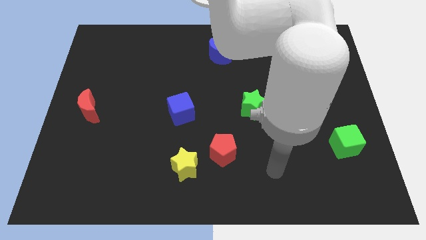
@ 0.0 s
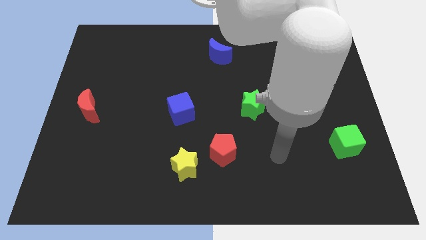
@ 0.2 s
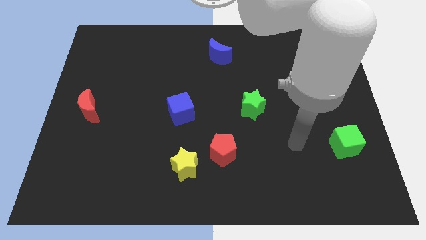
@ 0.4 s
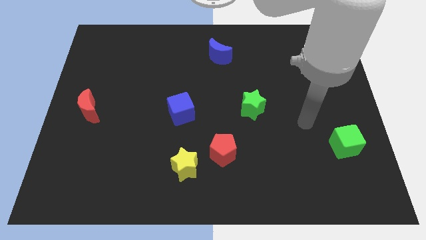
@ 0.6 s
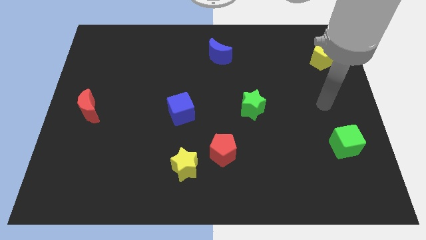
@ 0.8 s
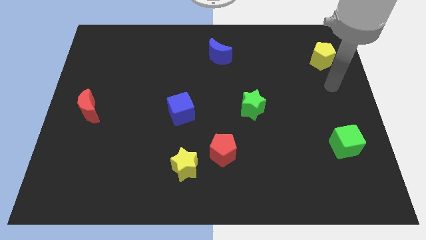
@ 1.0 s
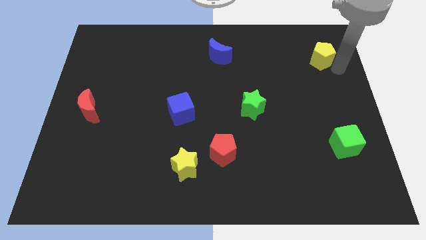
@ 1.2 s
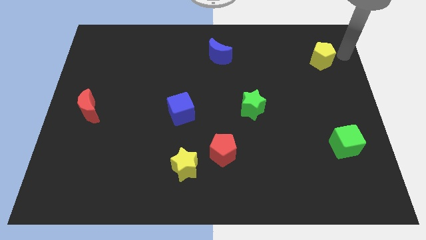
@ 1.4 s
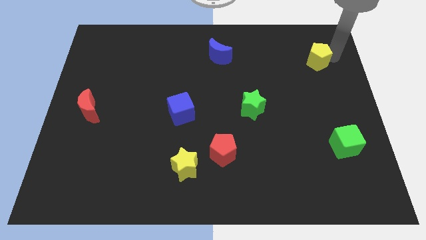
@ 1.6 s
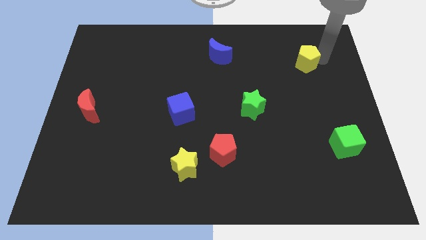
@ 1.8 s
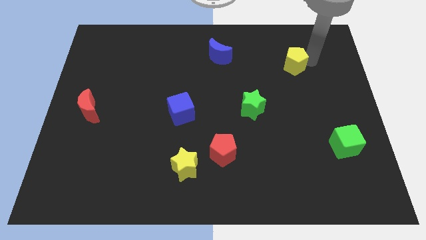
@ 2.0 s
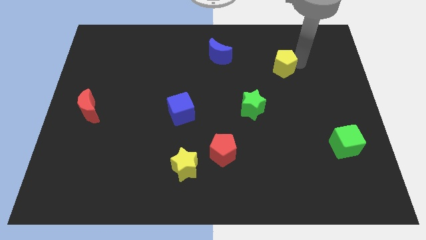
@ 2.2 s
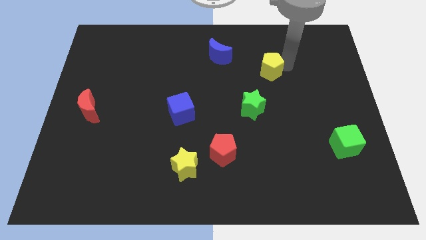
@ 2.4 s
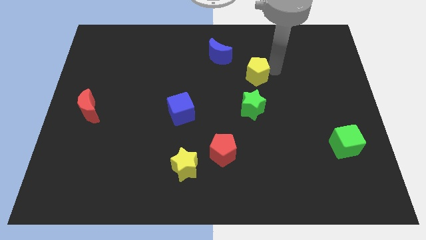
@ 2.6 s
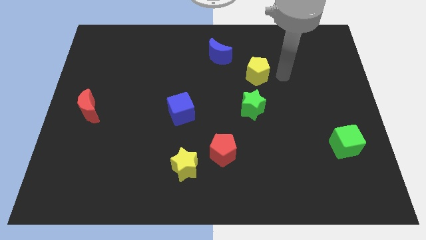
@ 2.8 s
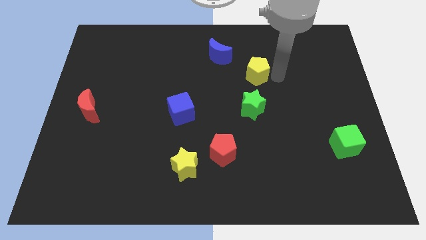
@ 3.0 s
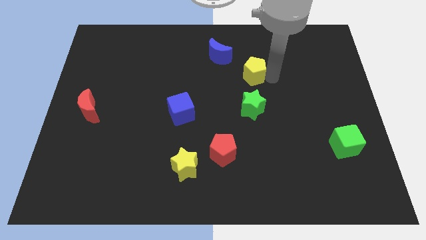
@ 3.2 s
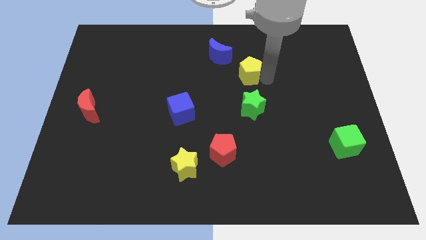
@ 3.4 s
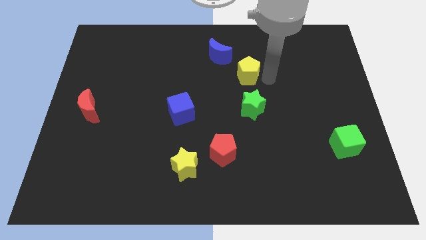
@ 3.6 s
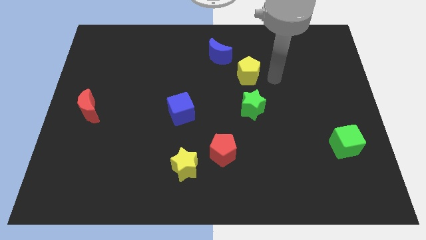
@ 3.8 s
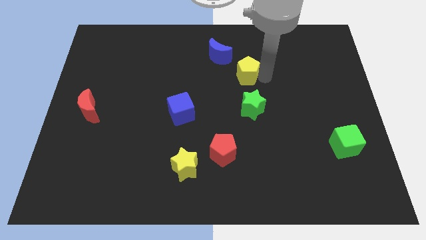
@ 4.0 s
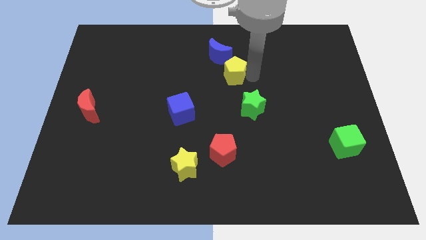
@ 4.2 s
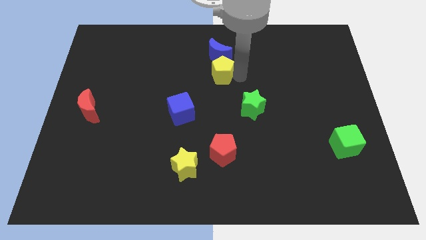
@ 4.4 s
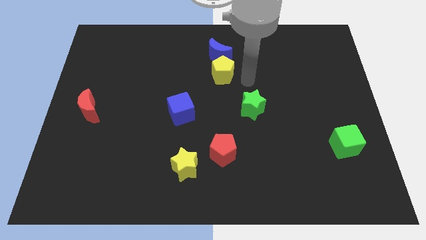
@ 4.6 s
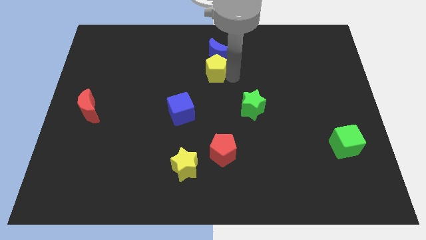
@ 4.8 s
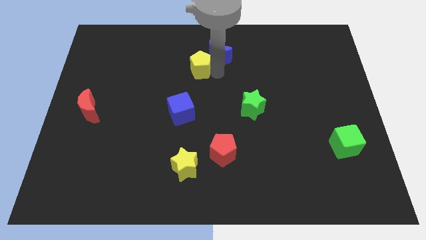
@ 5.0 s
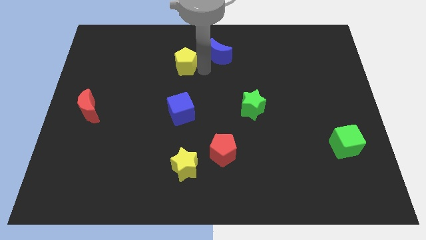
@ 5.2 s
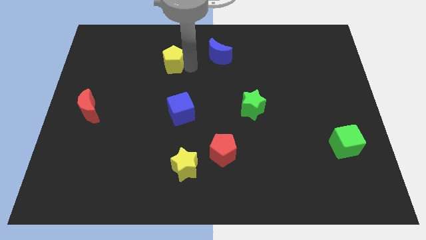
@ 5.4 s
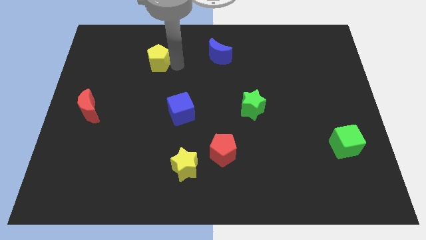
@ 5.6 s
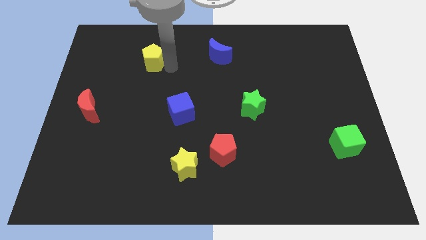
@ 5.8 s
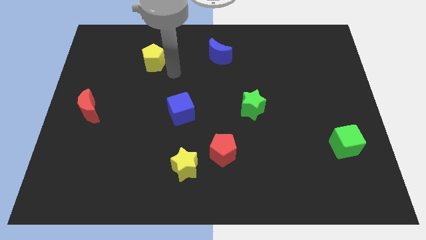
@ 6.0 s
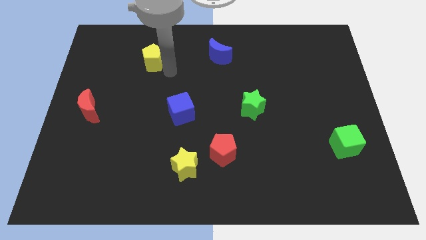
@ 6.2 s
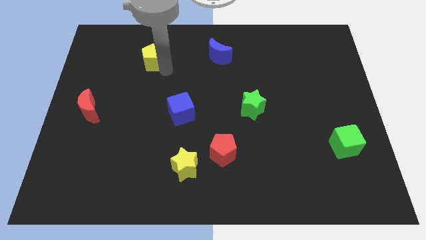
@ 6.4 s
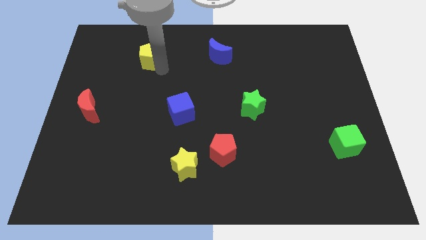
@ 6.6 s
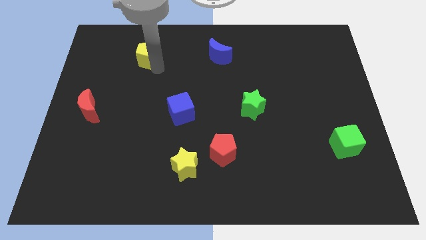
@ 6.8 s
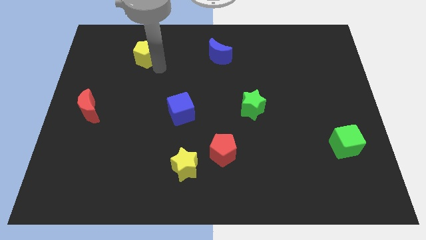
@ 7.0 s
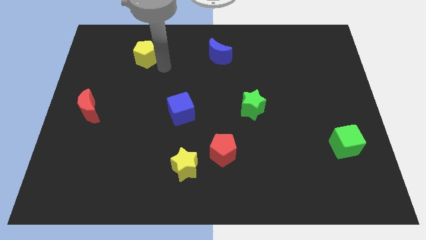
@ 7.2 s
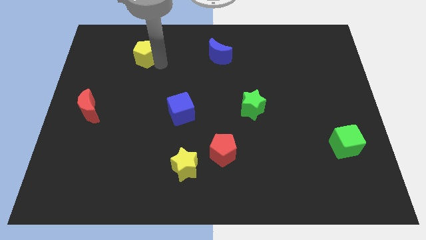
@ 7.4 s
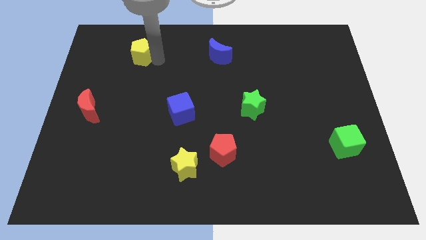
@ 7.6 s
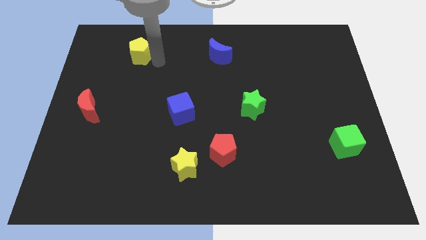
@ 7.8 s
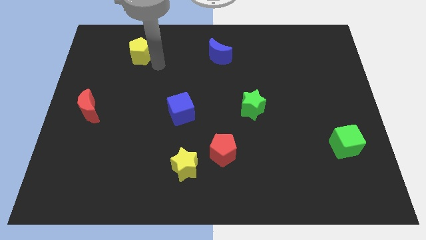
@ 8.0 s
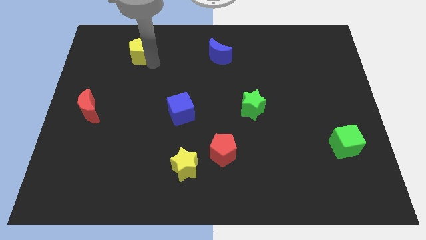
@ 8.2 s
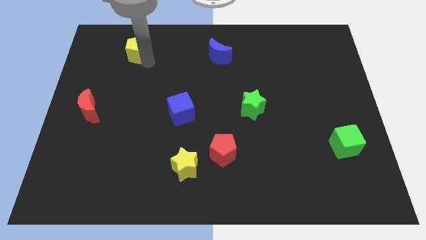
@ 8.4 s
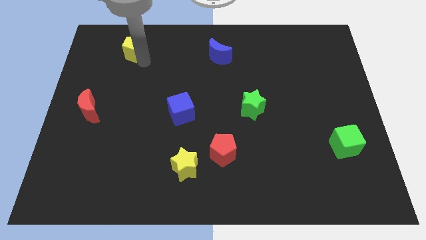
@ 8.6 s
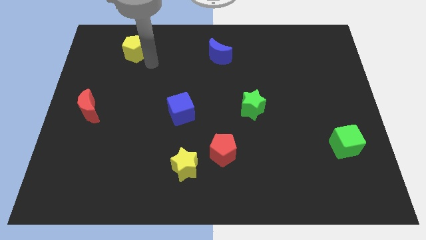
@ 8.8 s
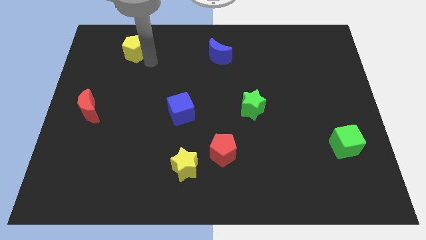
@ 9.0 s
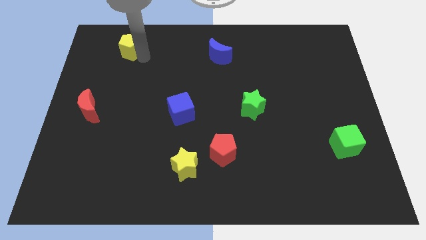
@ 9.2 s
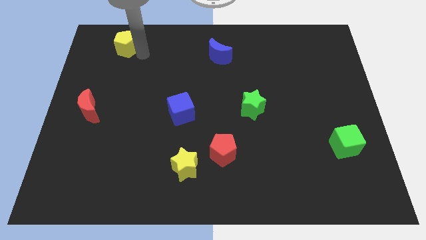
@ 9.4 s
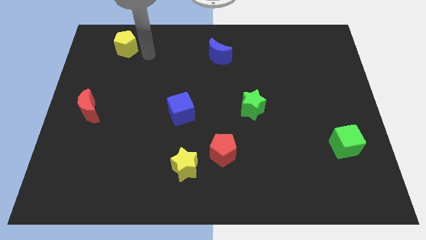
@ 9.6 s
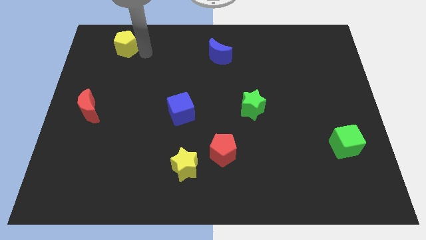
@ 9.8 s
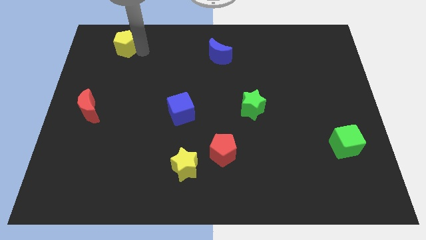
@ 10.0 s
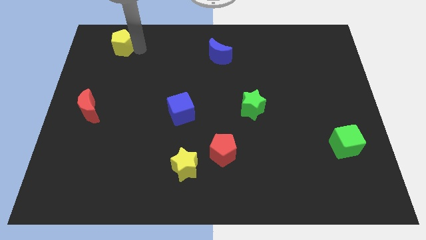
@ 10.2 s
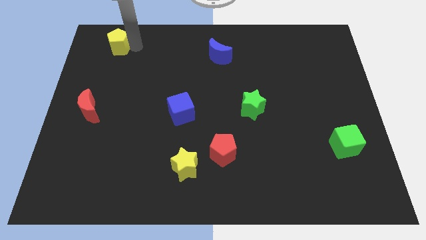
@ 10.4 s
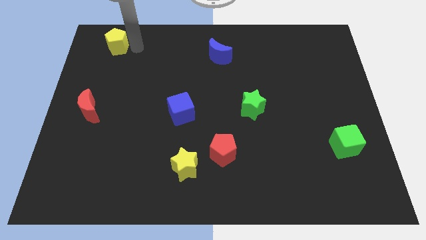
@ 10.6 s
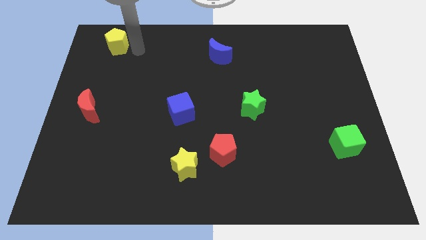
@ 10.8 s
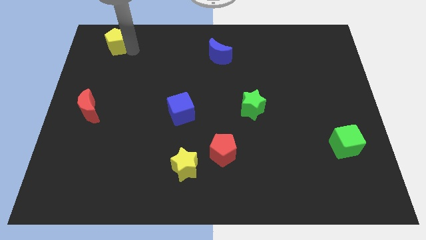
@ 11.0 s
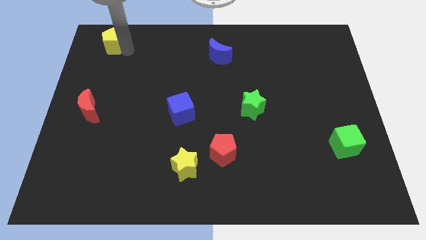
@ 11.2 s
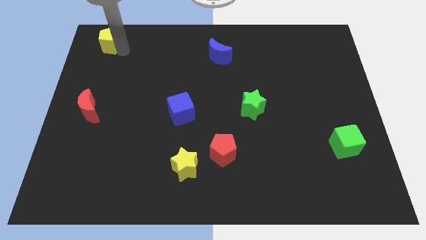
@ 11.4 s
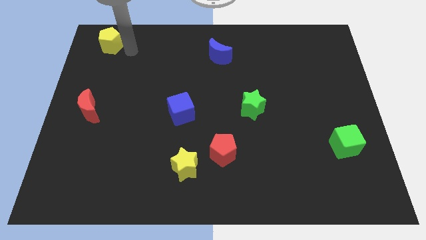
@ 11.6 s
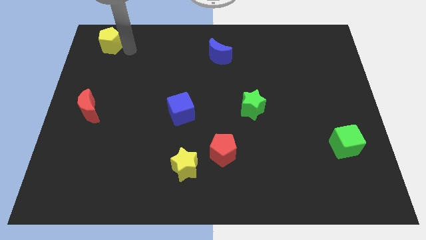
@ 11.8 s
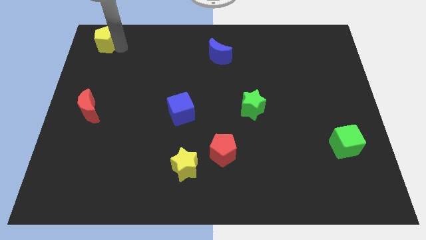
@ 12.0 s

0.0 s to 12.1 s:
slide the yellow pentagon to the top left

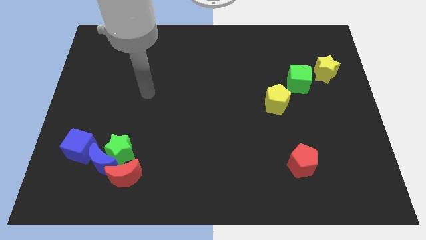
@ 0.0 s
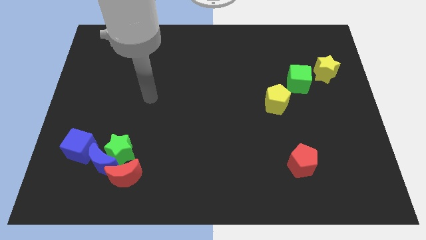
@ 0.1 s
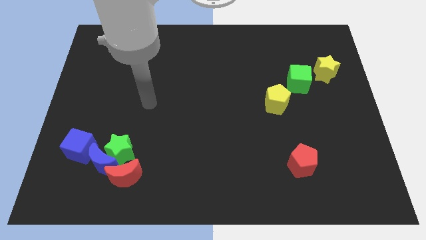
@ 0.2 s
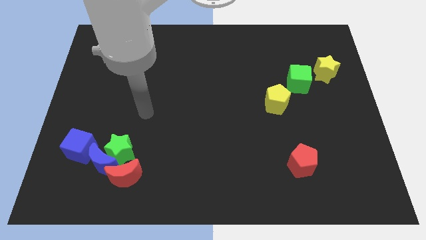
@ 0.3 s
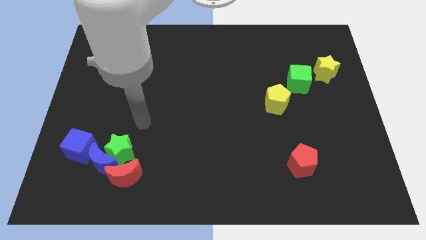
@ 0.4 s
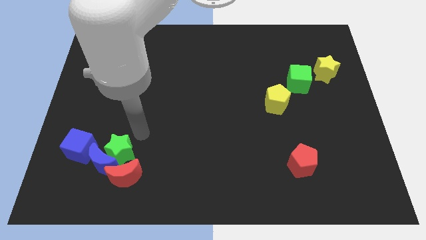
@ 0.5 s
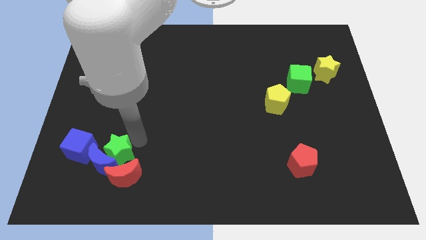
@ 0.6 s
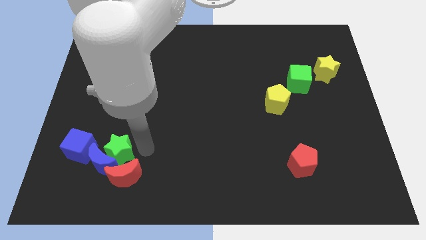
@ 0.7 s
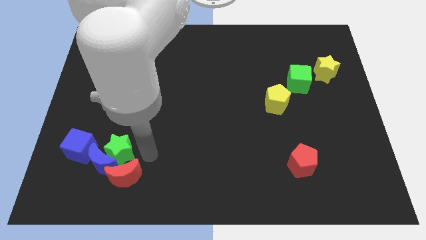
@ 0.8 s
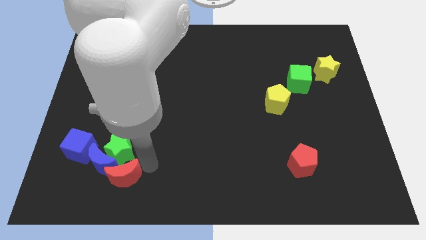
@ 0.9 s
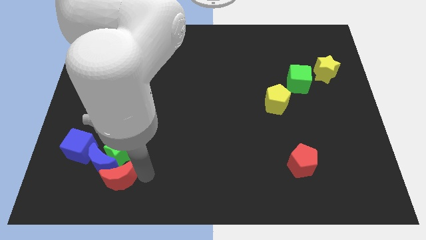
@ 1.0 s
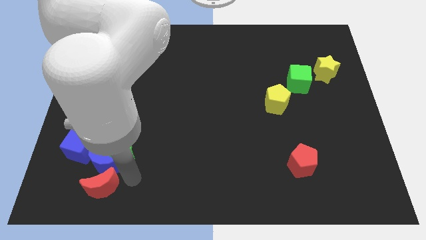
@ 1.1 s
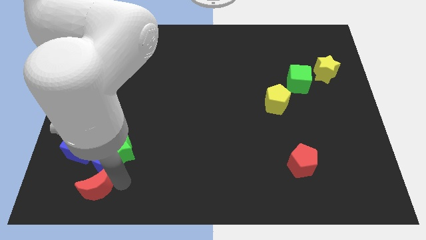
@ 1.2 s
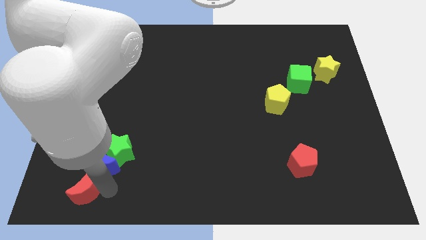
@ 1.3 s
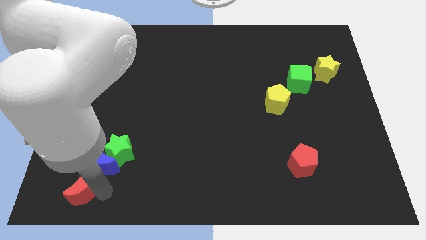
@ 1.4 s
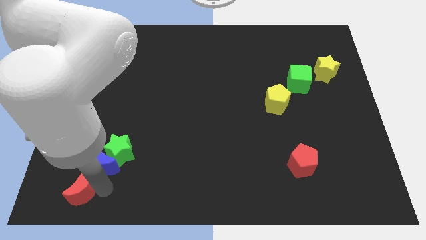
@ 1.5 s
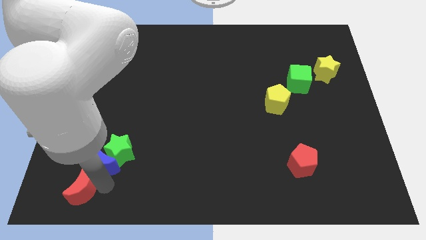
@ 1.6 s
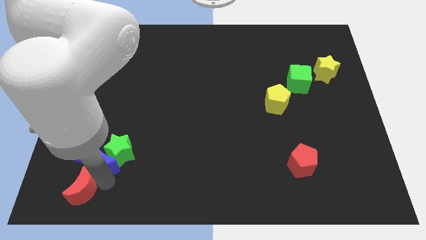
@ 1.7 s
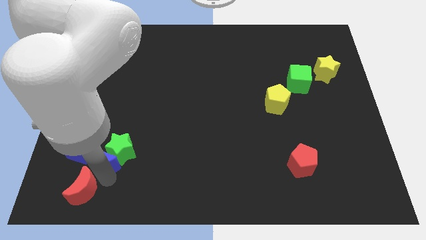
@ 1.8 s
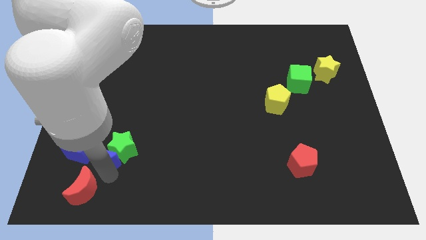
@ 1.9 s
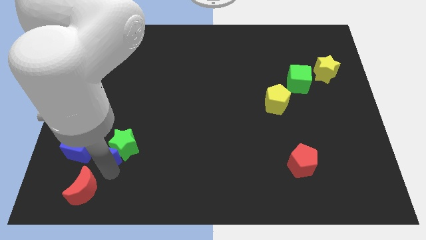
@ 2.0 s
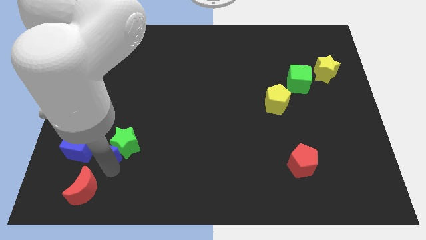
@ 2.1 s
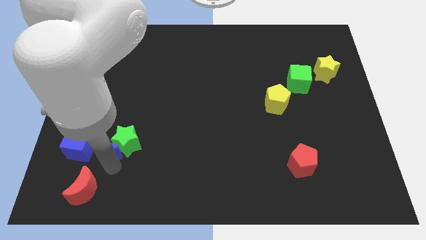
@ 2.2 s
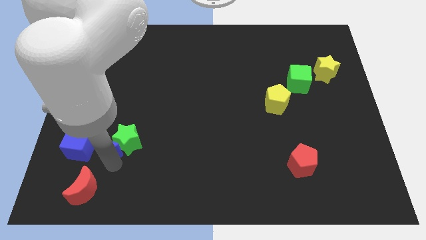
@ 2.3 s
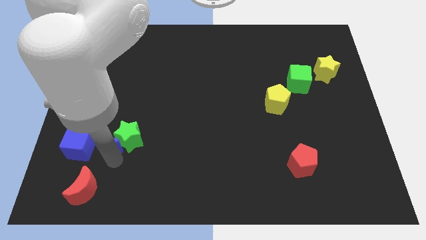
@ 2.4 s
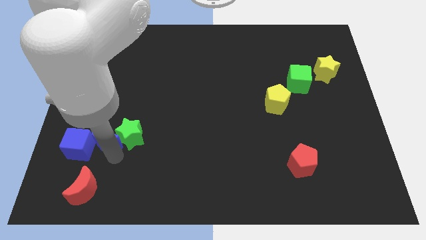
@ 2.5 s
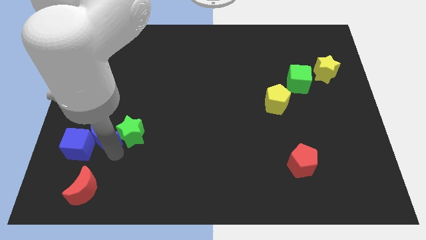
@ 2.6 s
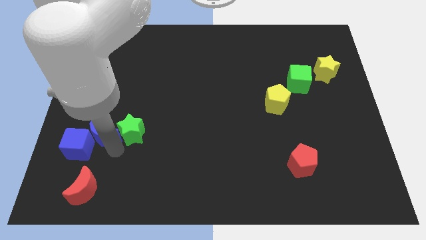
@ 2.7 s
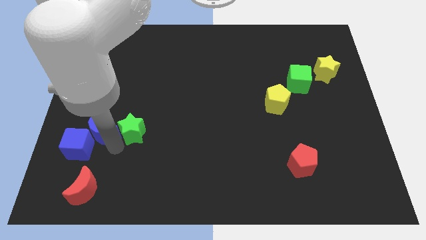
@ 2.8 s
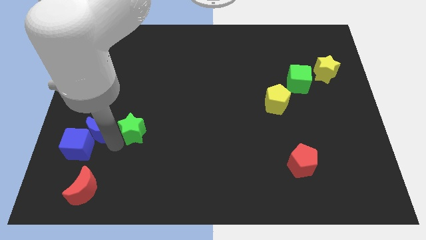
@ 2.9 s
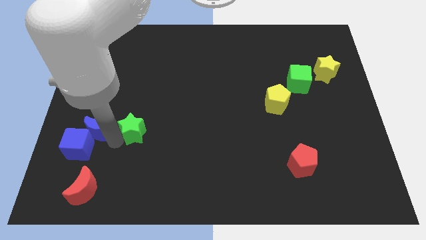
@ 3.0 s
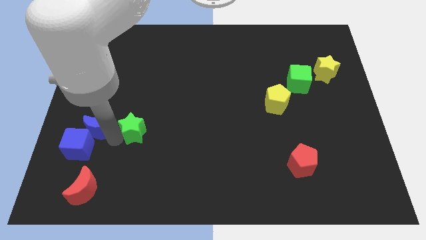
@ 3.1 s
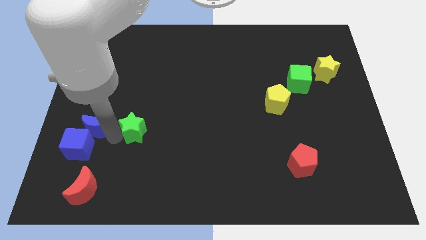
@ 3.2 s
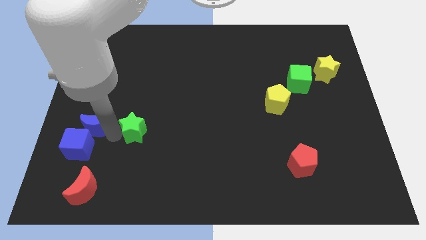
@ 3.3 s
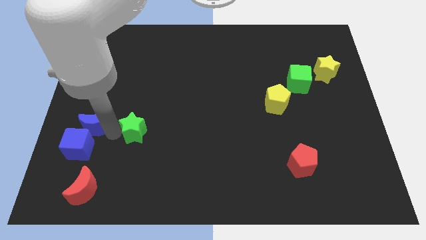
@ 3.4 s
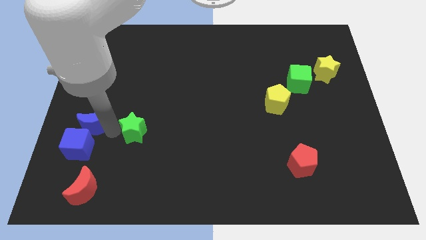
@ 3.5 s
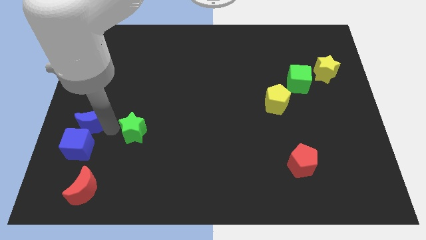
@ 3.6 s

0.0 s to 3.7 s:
slide the blue moon to the left side
